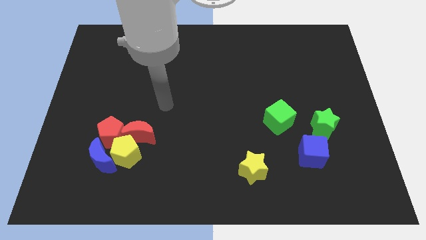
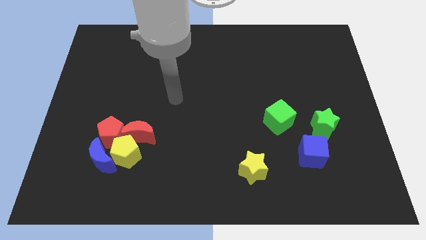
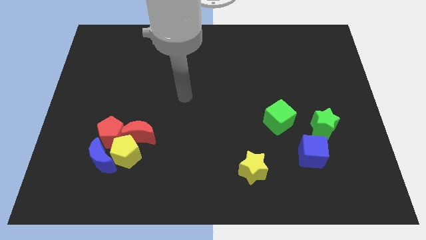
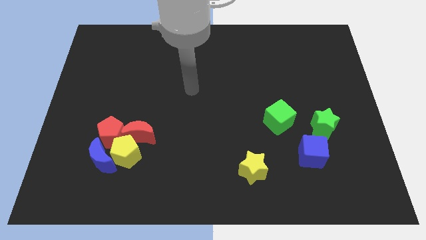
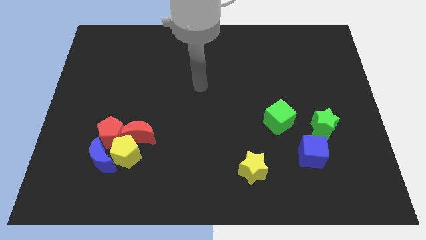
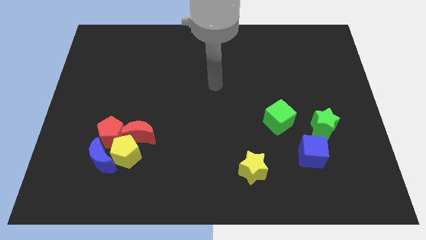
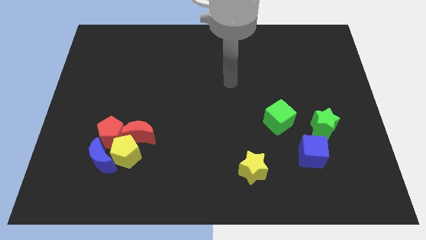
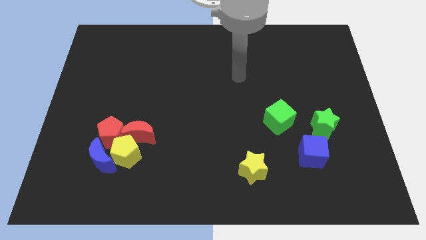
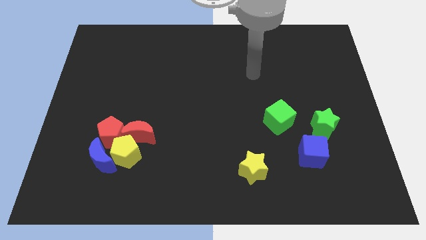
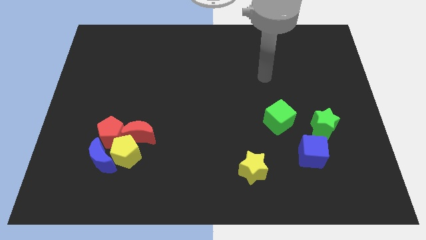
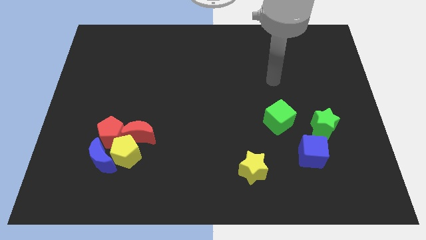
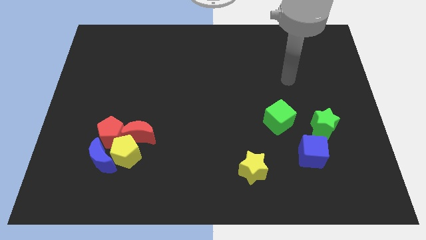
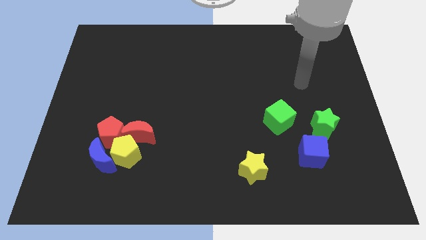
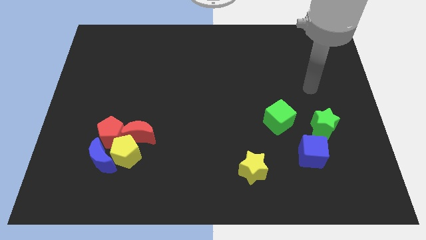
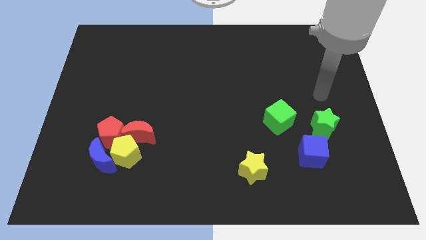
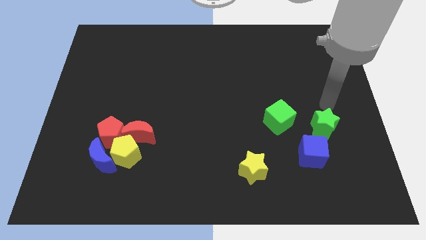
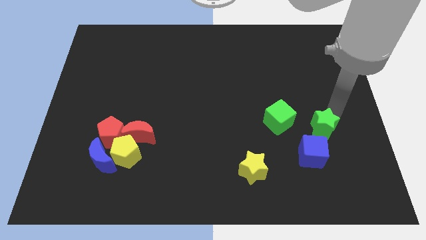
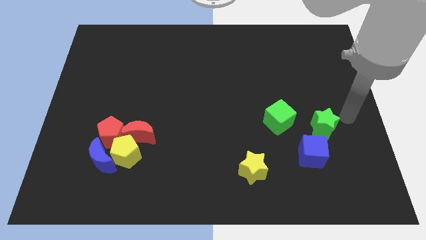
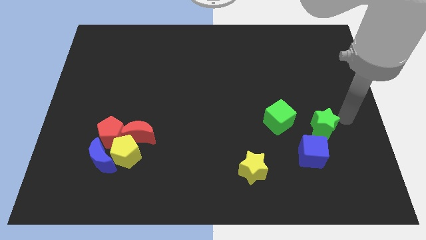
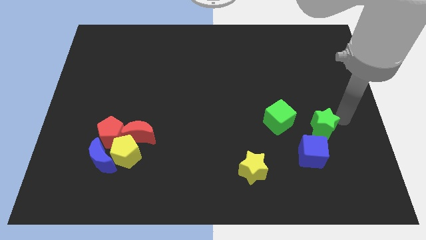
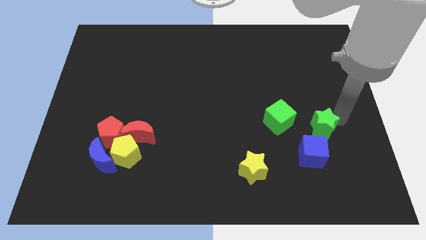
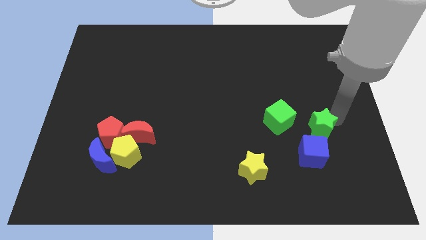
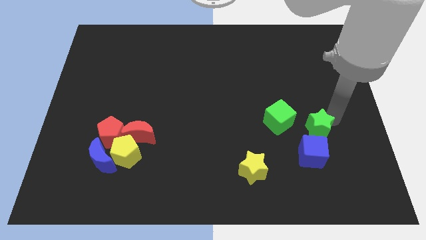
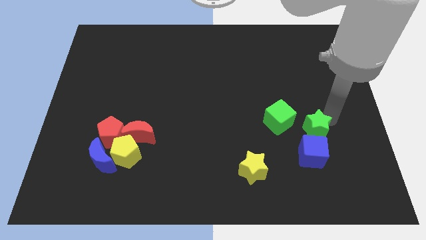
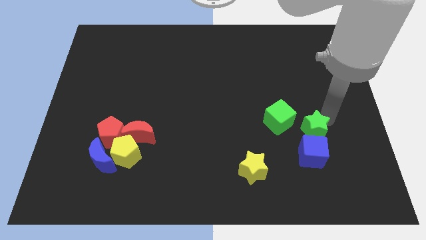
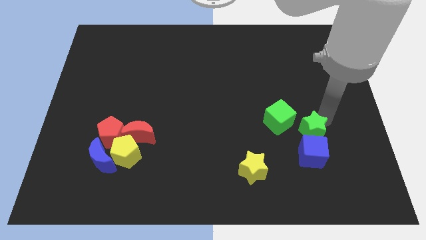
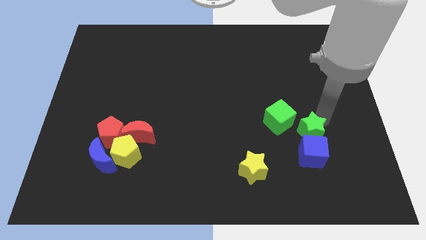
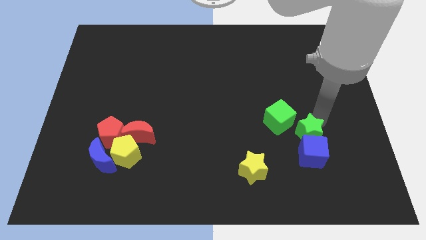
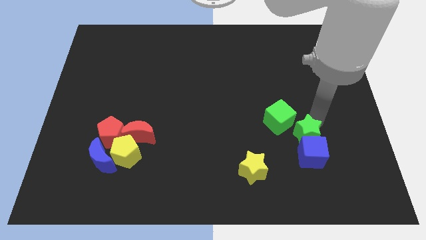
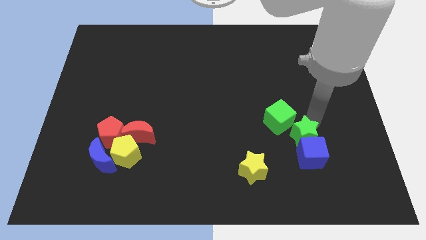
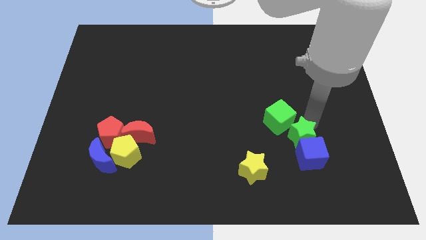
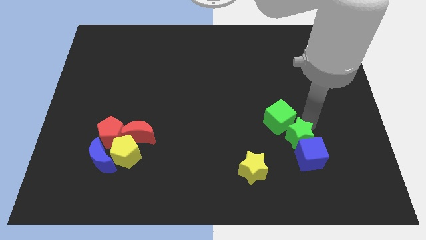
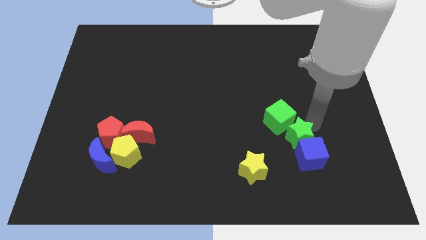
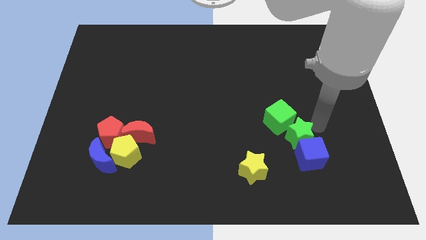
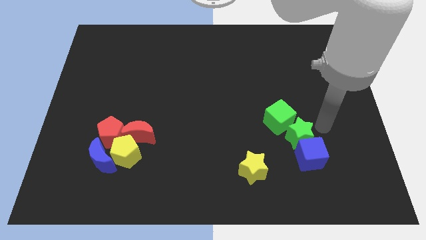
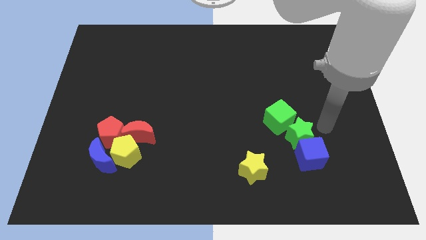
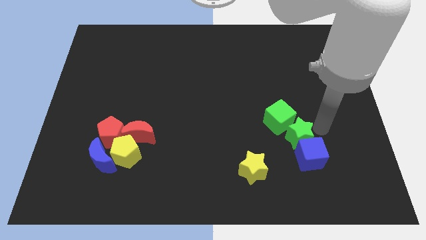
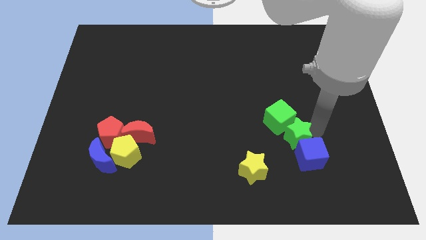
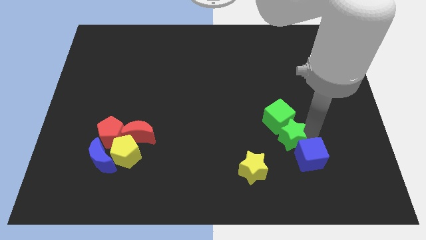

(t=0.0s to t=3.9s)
slide the green star to the left slightly

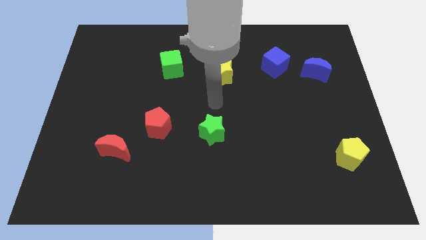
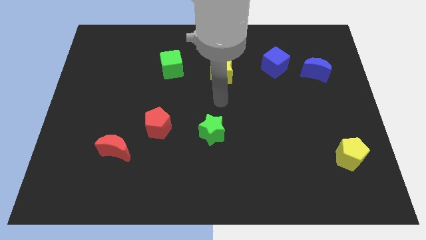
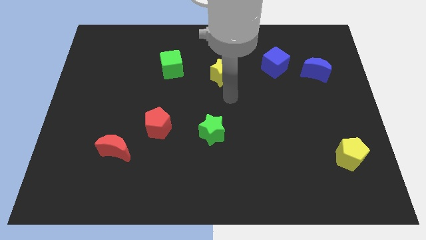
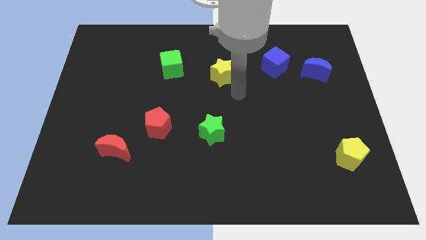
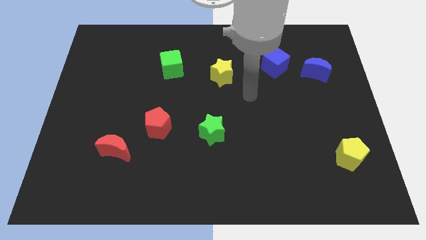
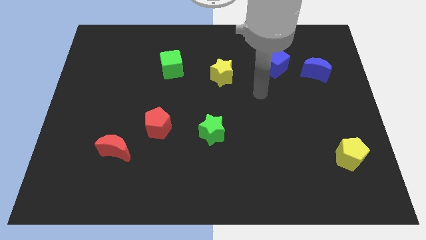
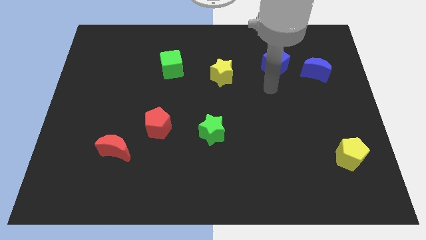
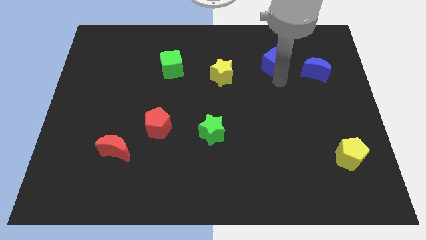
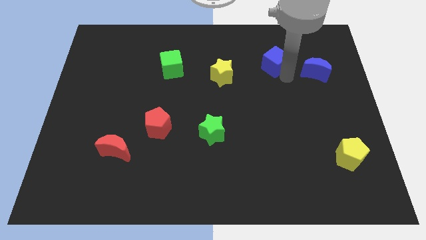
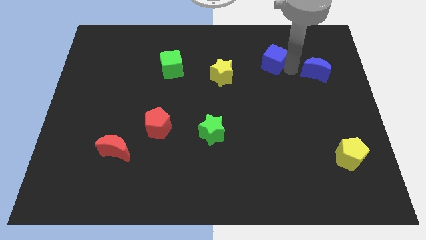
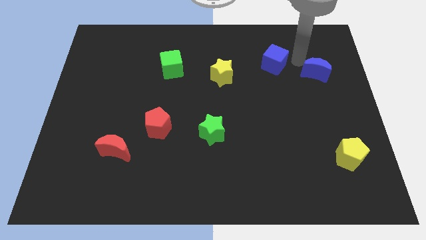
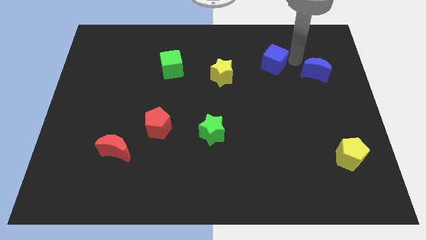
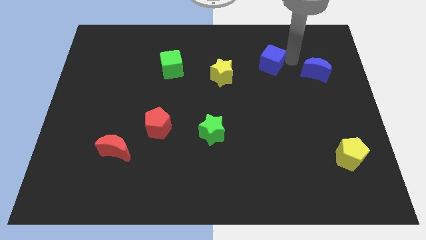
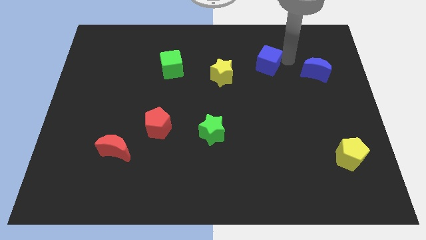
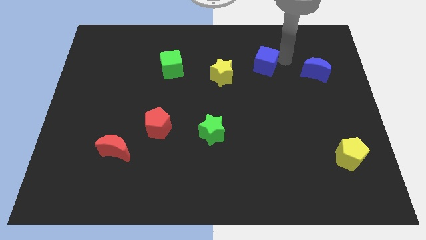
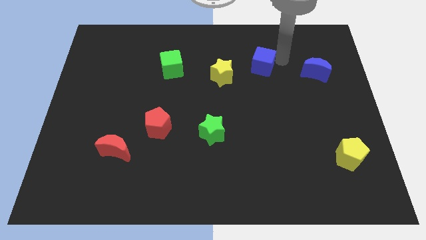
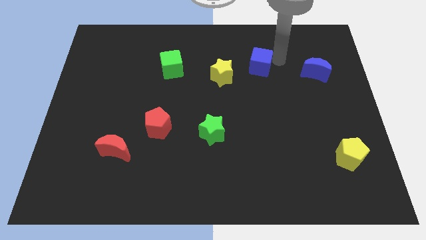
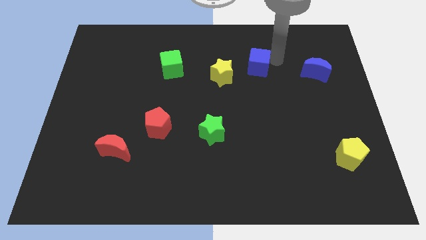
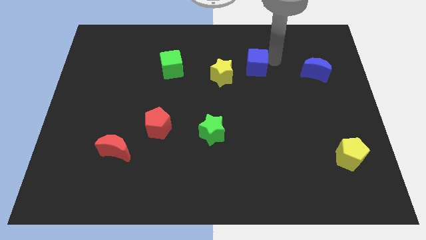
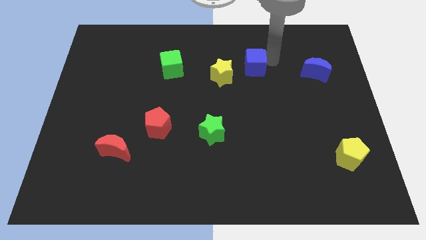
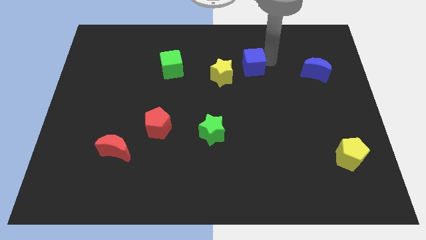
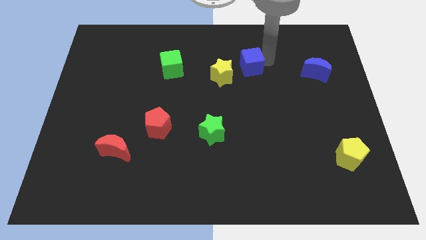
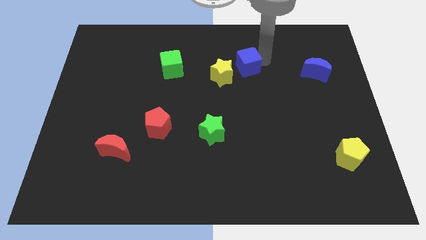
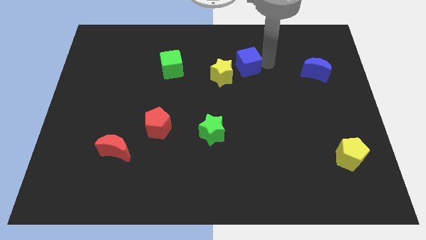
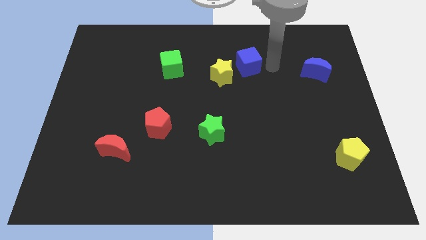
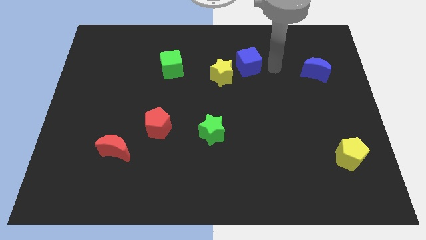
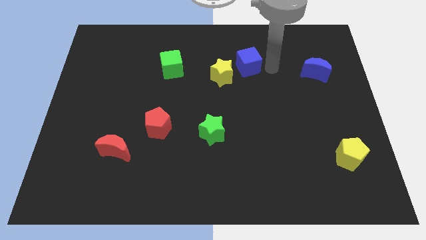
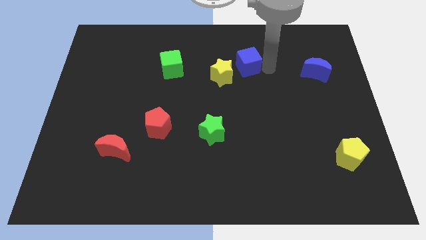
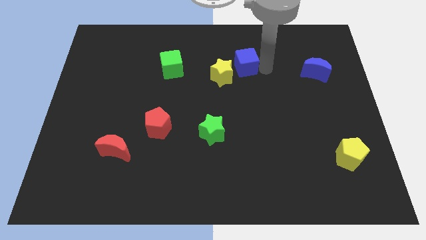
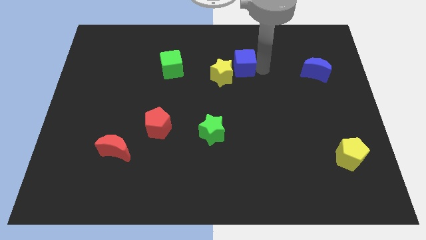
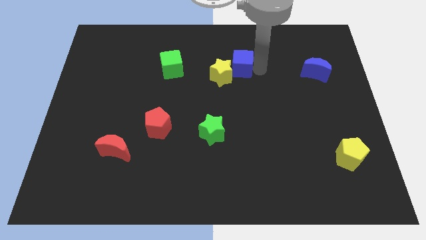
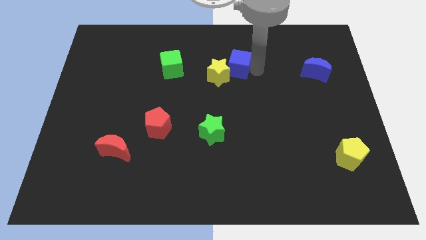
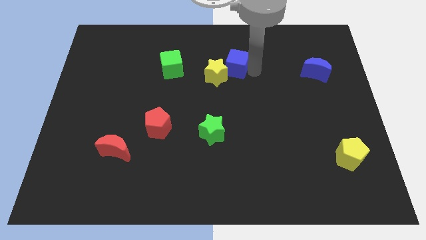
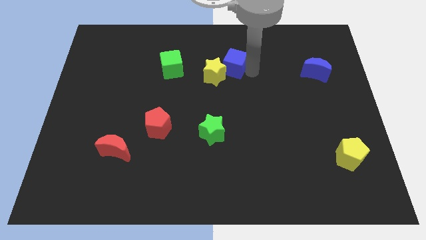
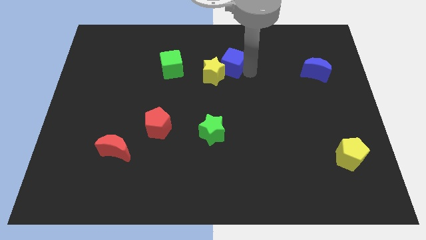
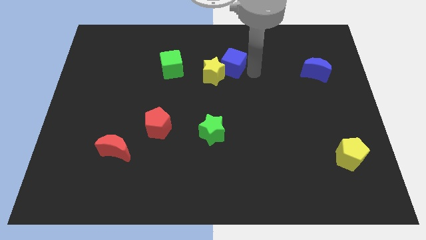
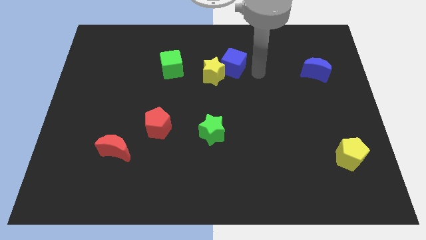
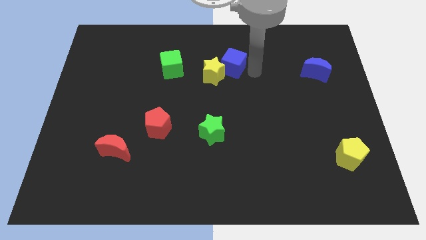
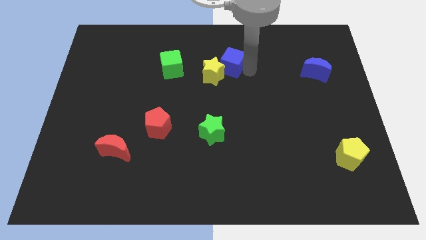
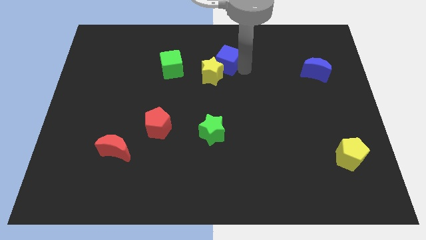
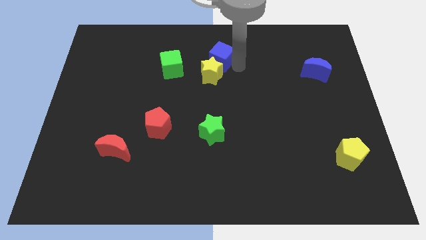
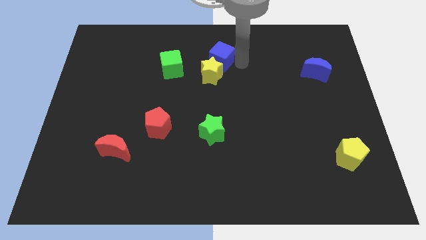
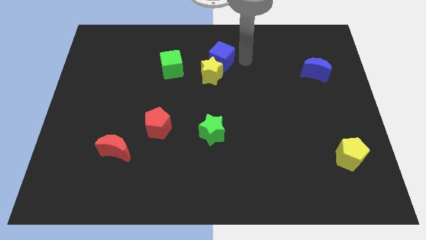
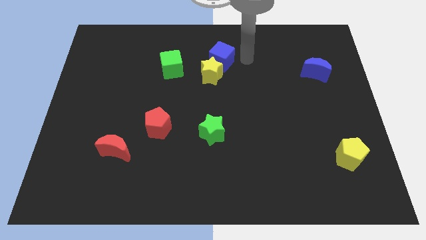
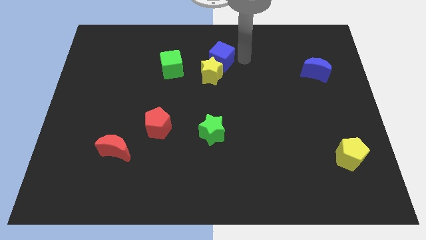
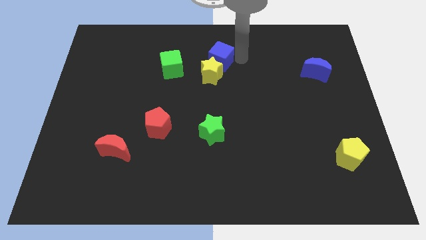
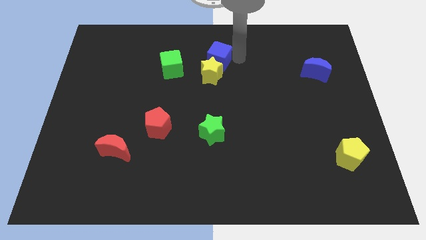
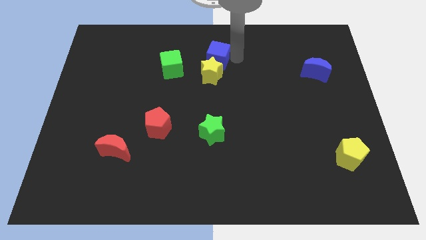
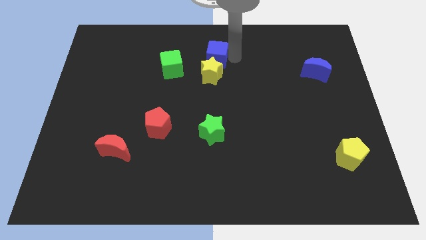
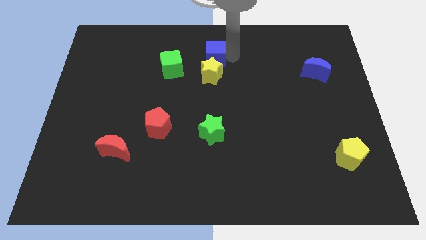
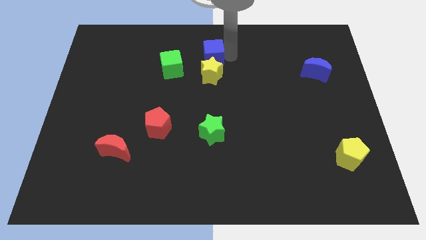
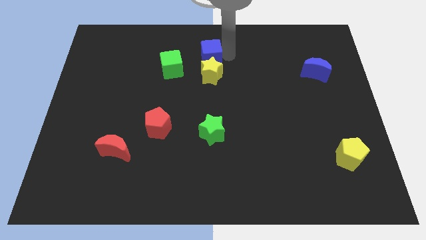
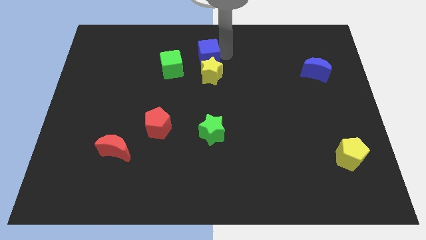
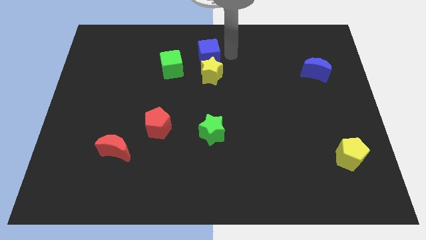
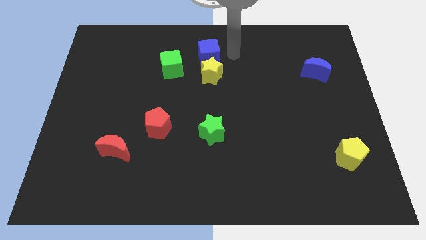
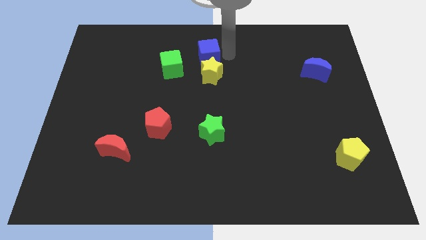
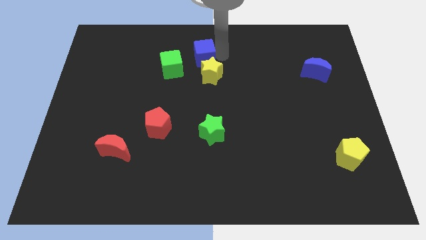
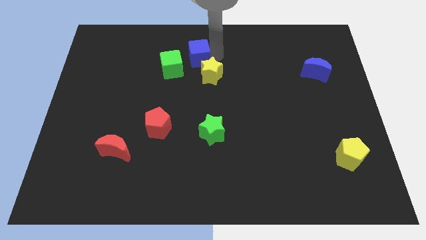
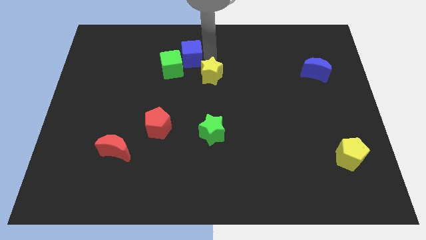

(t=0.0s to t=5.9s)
push the blue cube to the left
